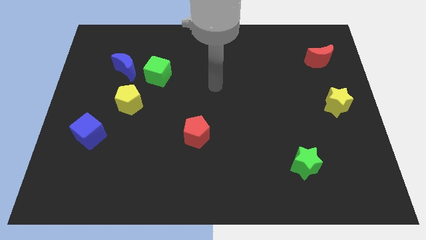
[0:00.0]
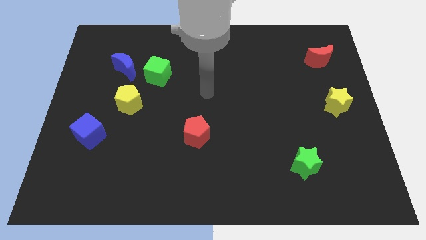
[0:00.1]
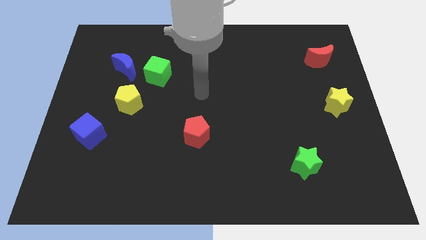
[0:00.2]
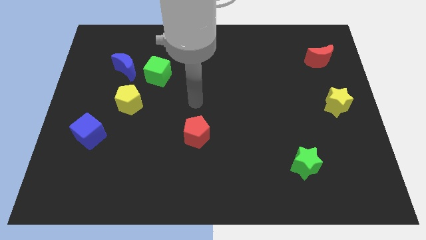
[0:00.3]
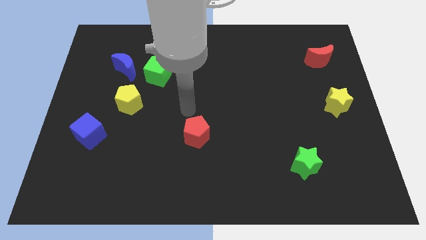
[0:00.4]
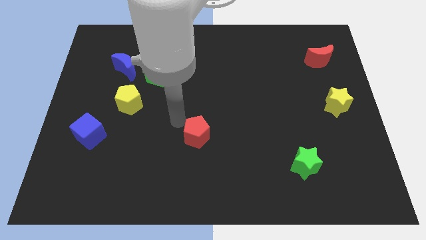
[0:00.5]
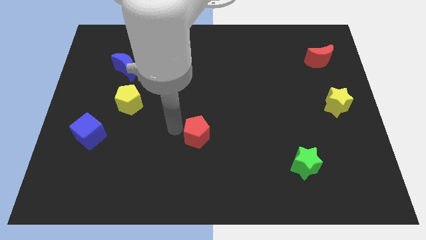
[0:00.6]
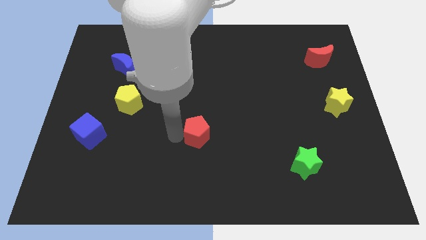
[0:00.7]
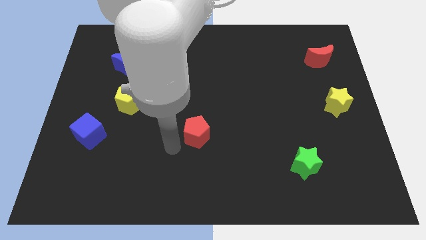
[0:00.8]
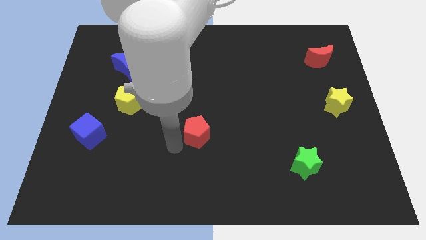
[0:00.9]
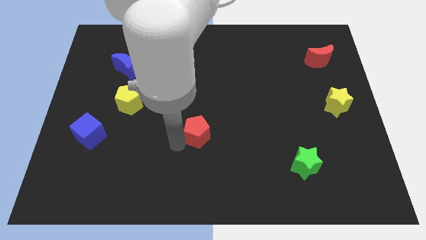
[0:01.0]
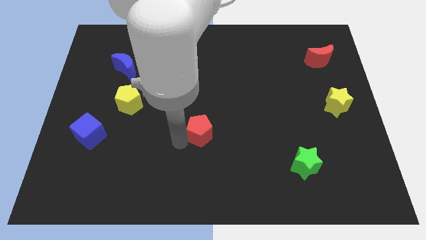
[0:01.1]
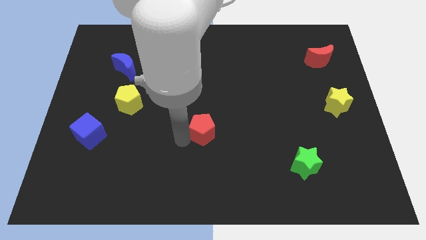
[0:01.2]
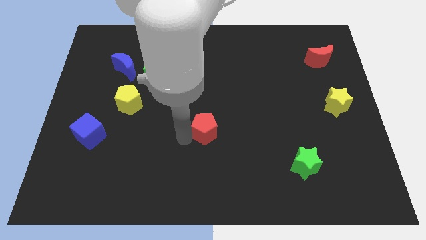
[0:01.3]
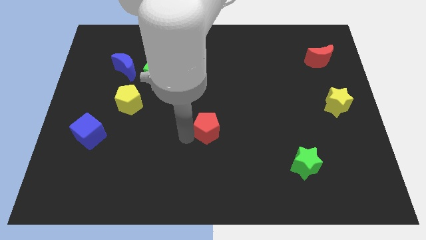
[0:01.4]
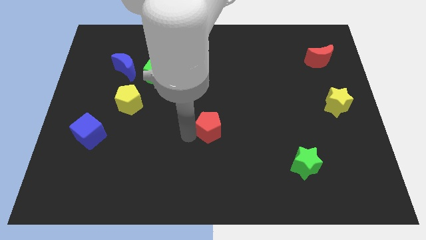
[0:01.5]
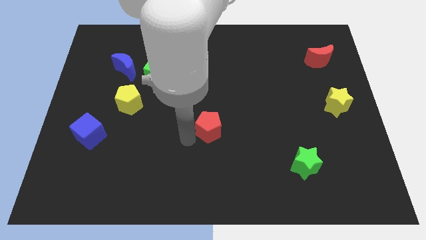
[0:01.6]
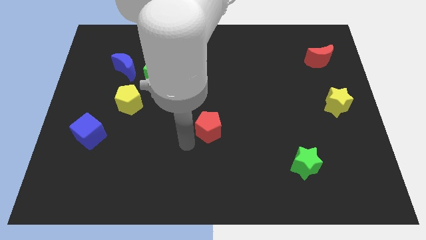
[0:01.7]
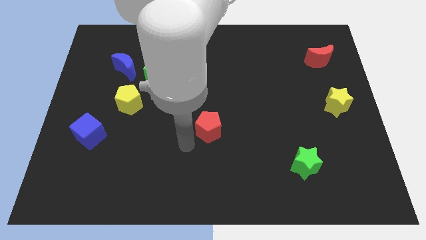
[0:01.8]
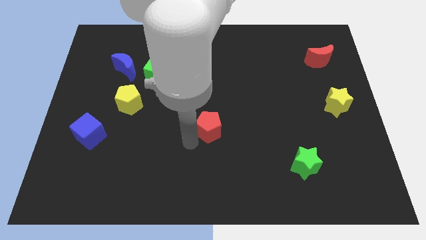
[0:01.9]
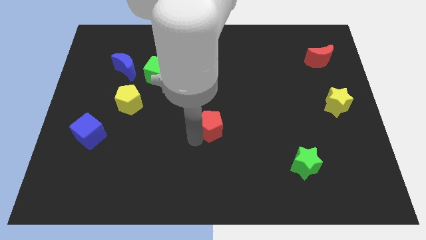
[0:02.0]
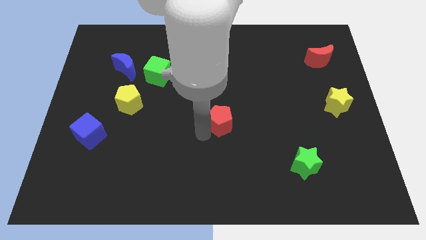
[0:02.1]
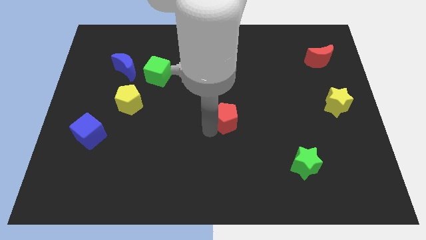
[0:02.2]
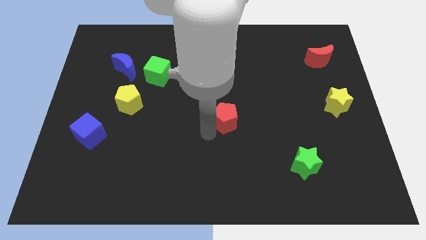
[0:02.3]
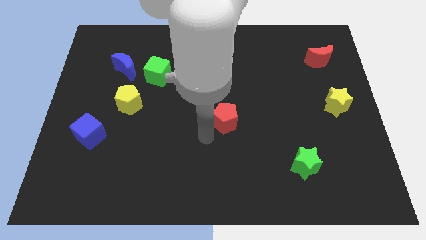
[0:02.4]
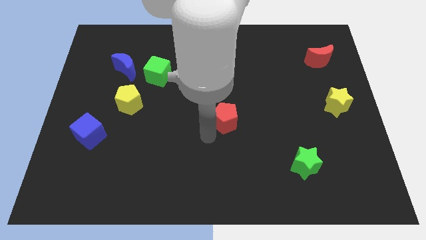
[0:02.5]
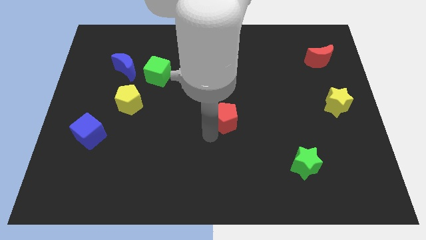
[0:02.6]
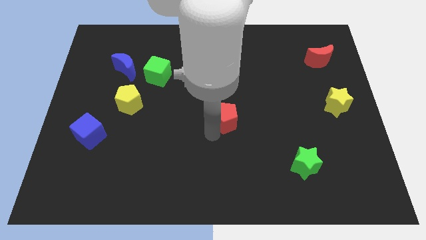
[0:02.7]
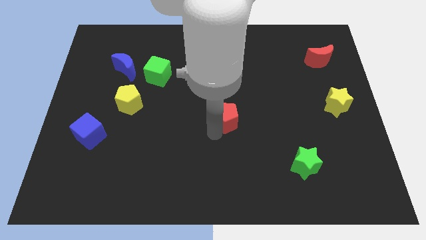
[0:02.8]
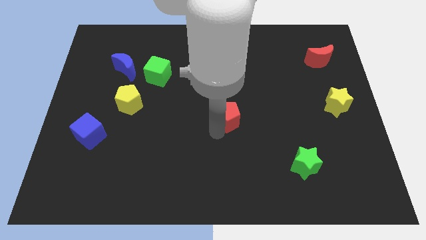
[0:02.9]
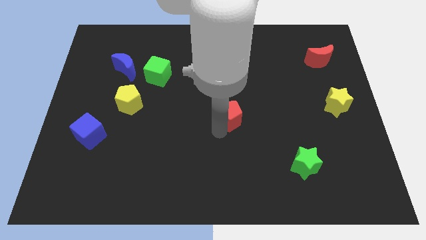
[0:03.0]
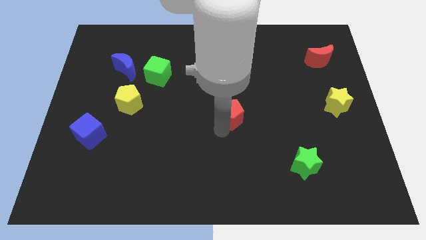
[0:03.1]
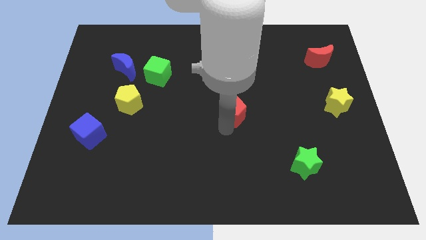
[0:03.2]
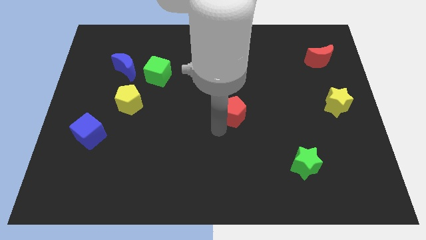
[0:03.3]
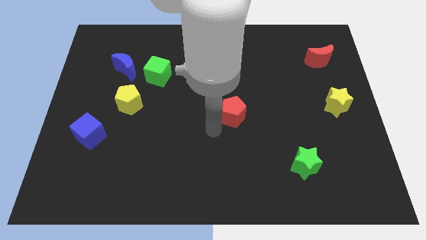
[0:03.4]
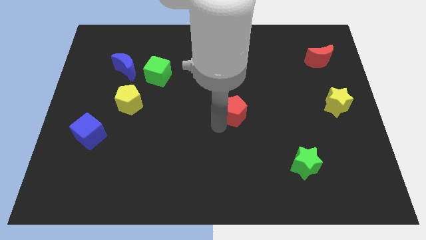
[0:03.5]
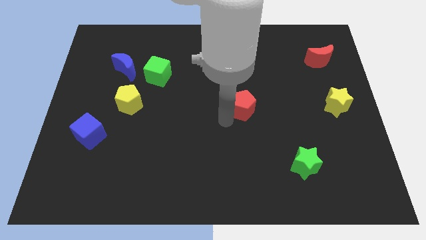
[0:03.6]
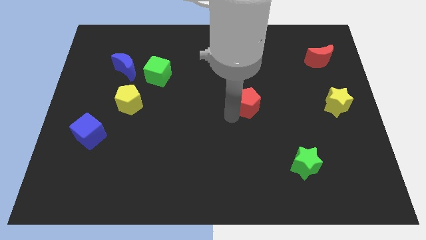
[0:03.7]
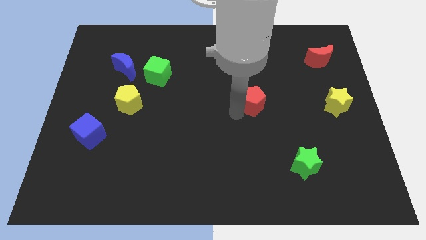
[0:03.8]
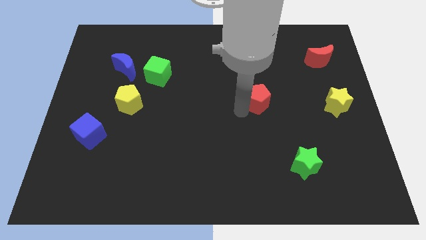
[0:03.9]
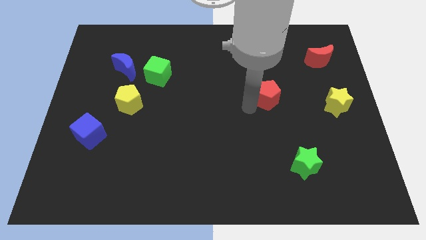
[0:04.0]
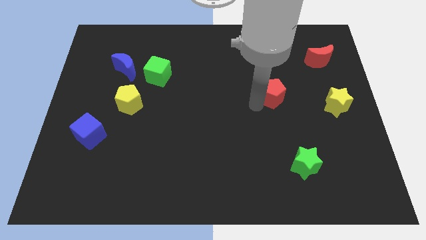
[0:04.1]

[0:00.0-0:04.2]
push the red pentagon up and right diagonally

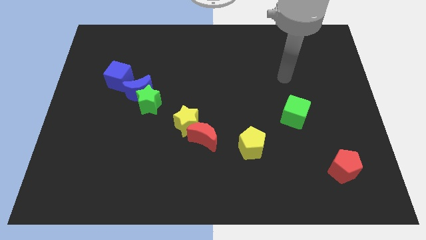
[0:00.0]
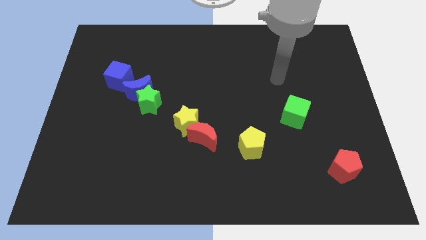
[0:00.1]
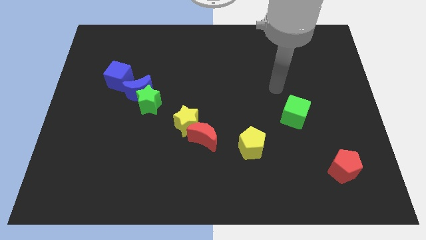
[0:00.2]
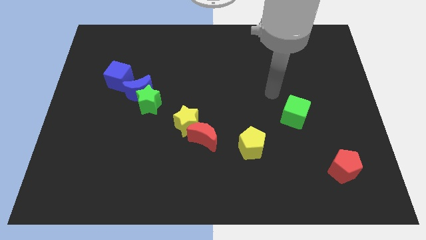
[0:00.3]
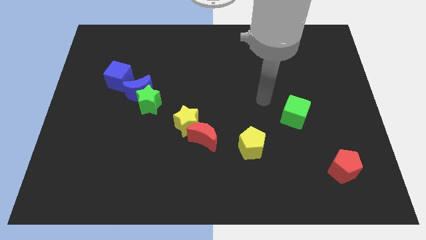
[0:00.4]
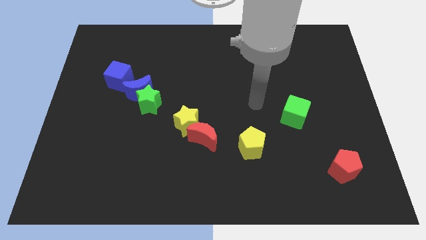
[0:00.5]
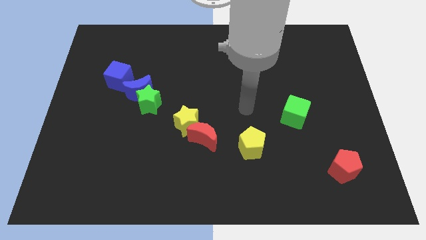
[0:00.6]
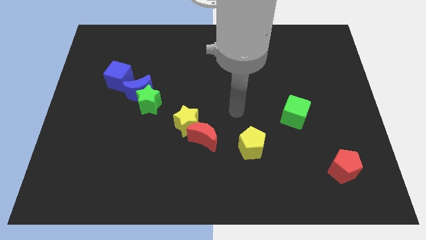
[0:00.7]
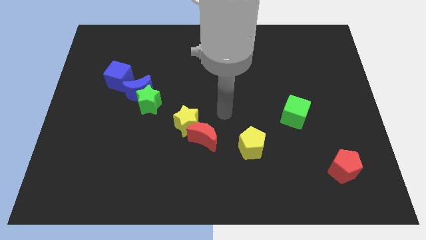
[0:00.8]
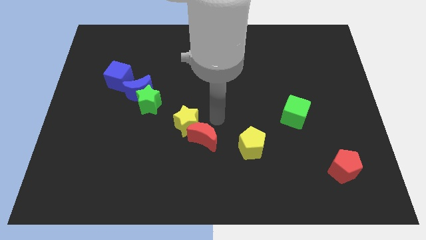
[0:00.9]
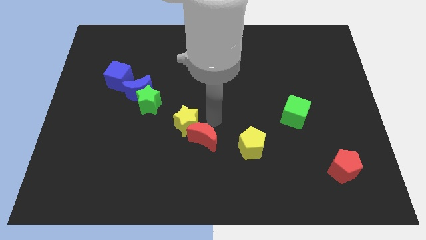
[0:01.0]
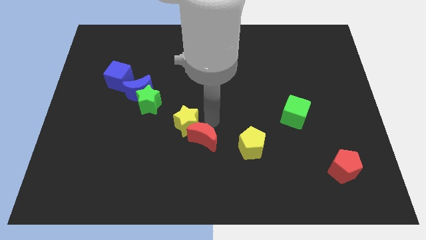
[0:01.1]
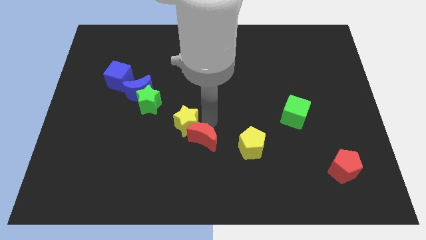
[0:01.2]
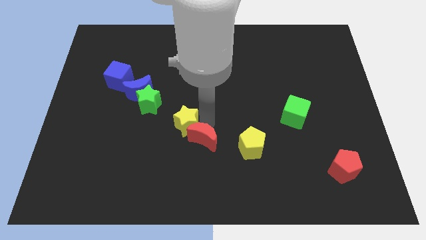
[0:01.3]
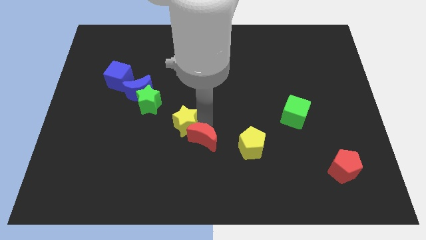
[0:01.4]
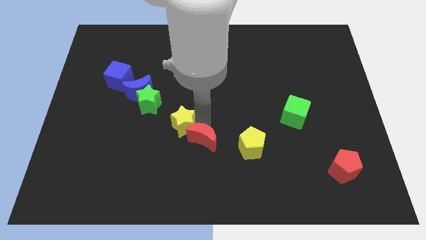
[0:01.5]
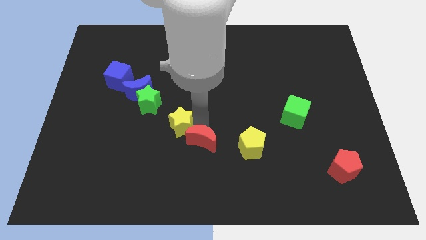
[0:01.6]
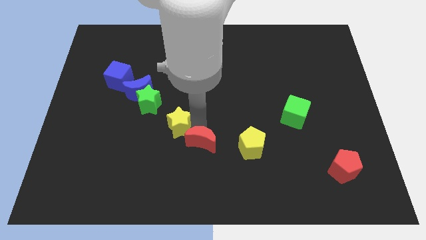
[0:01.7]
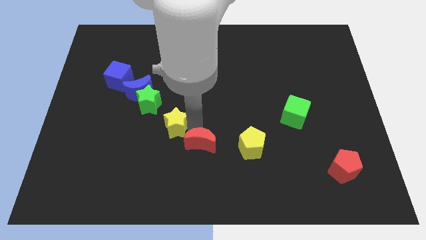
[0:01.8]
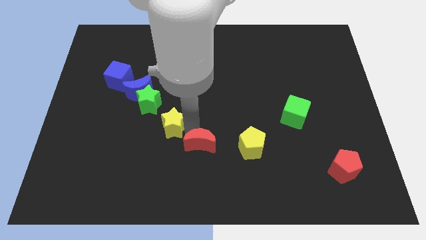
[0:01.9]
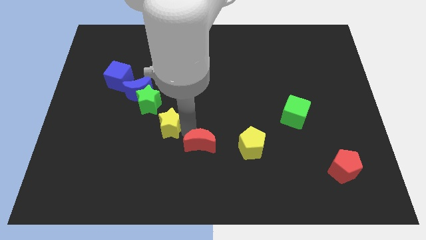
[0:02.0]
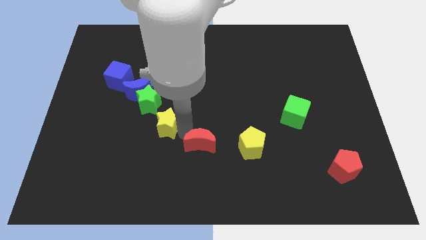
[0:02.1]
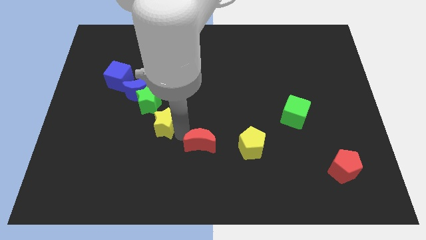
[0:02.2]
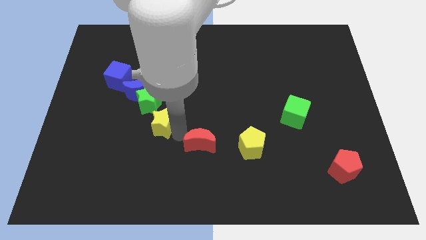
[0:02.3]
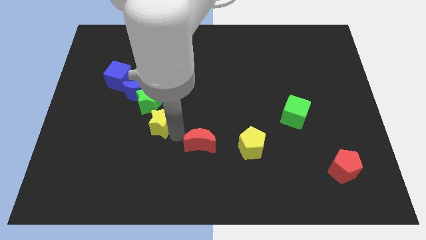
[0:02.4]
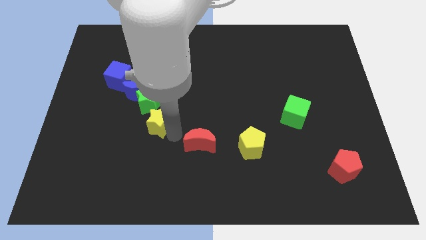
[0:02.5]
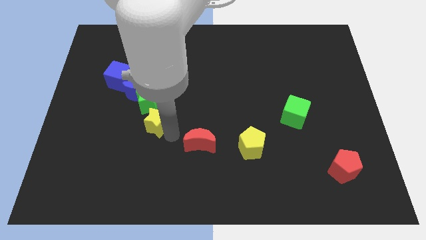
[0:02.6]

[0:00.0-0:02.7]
slide the yellow star left somewhat

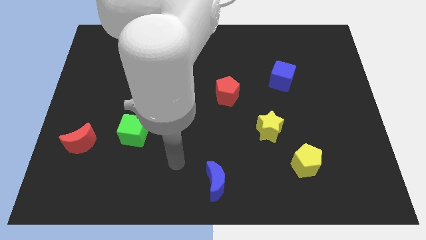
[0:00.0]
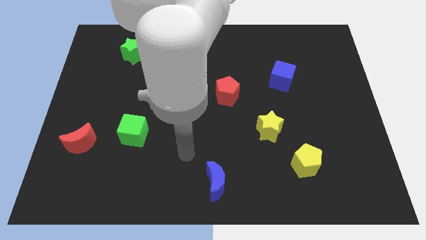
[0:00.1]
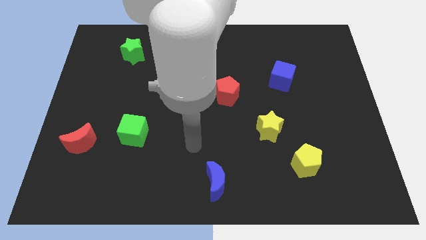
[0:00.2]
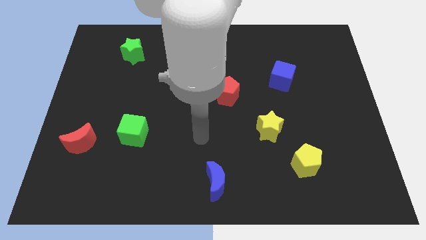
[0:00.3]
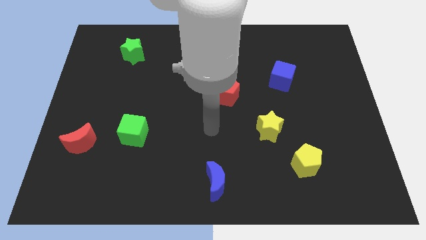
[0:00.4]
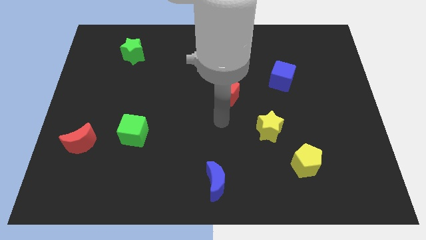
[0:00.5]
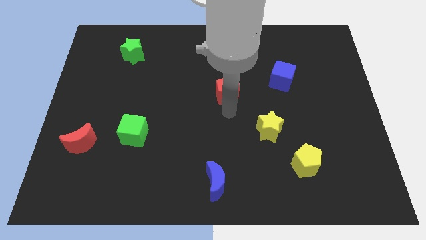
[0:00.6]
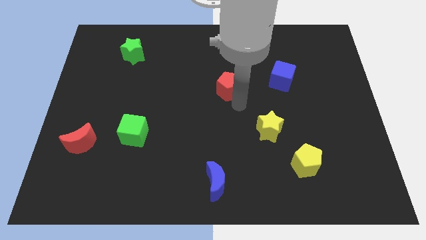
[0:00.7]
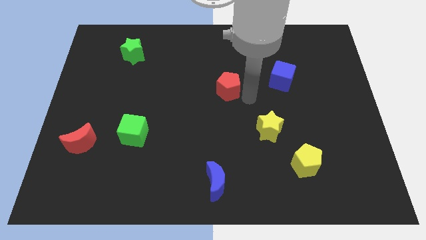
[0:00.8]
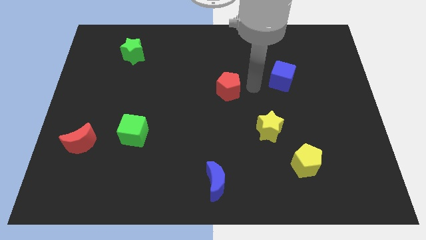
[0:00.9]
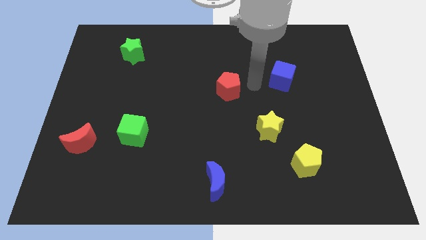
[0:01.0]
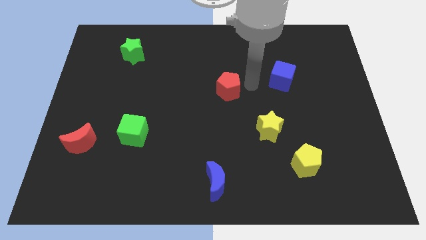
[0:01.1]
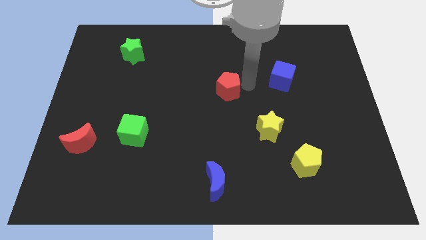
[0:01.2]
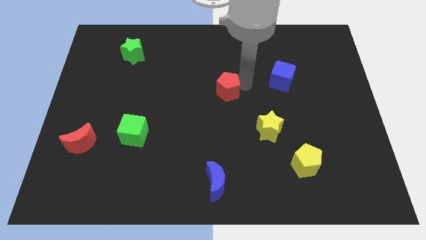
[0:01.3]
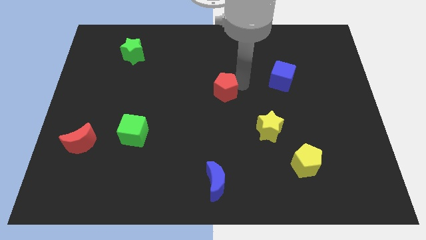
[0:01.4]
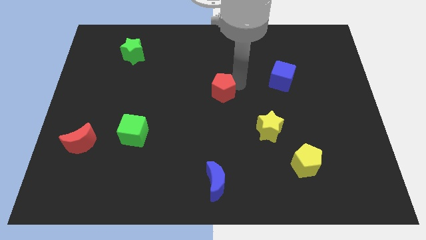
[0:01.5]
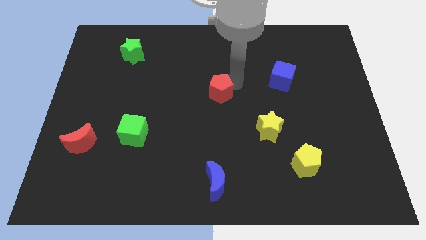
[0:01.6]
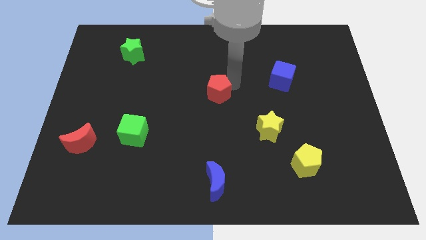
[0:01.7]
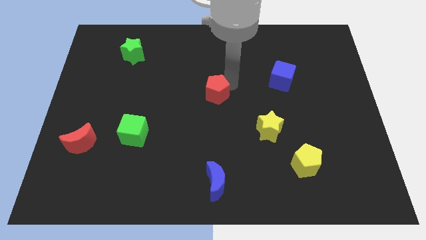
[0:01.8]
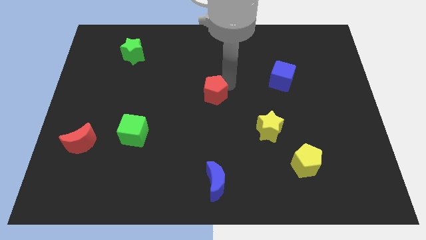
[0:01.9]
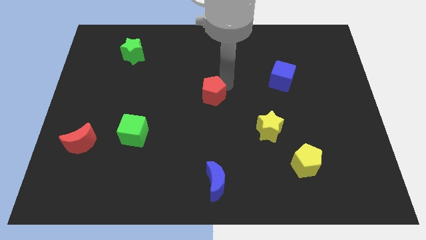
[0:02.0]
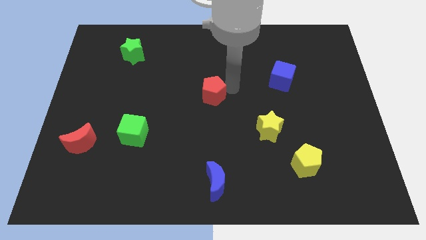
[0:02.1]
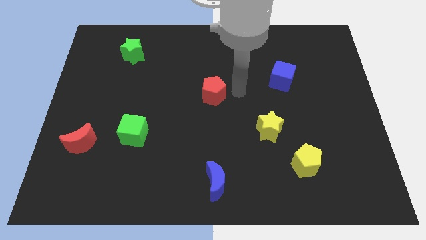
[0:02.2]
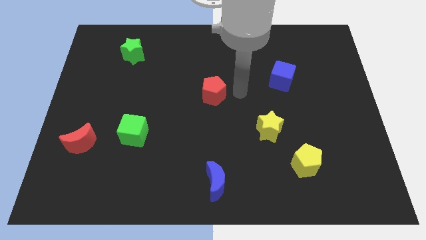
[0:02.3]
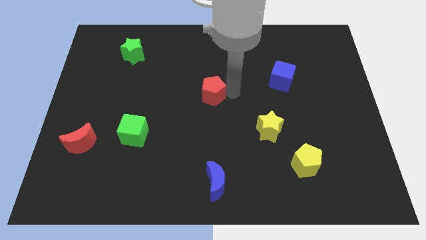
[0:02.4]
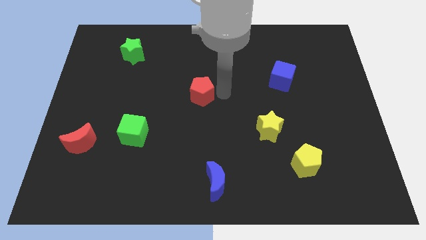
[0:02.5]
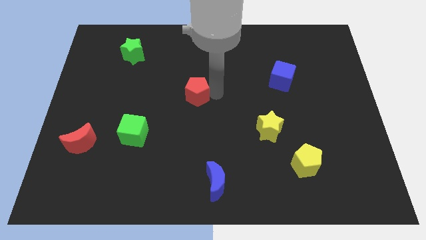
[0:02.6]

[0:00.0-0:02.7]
slightly push the red pentagon left
